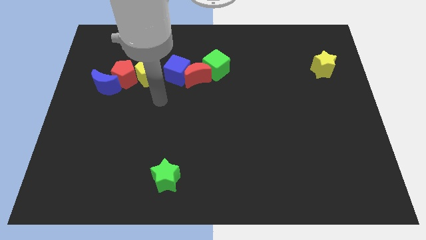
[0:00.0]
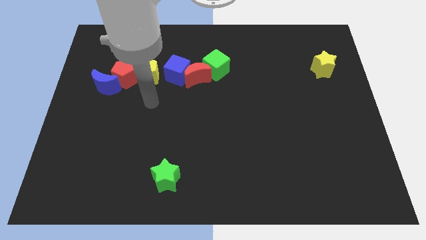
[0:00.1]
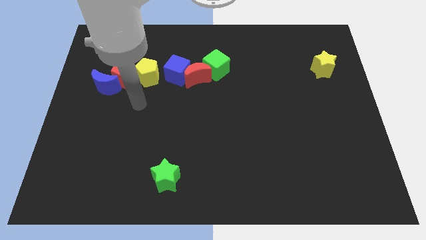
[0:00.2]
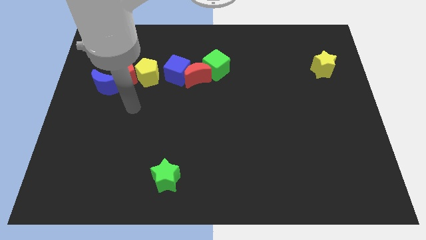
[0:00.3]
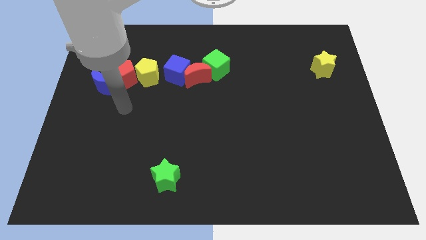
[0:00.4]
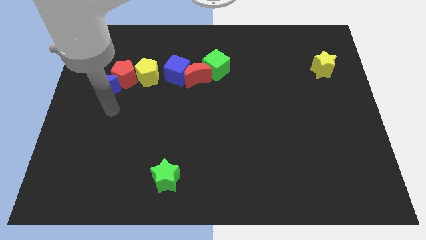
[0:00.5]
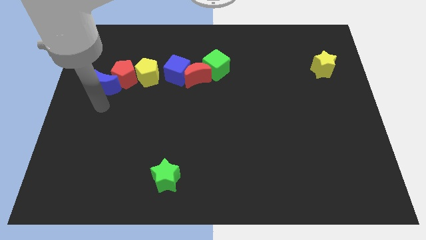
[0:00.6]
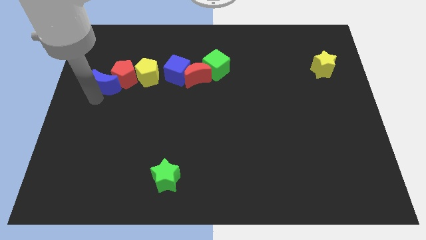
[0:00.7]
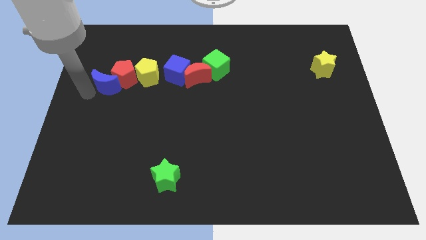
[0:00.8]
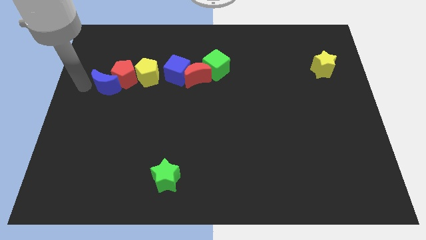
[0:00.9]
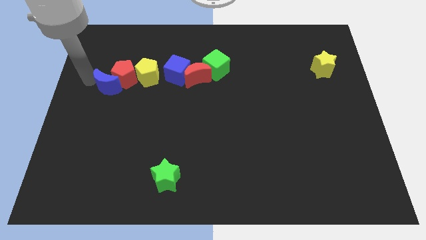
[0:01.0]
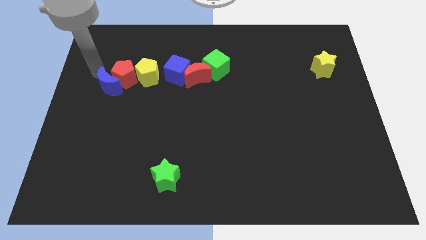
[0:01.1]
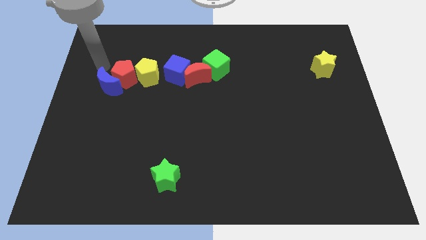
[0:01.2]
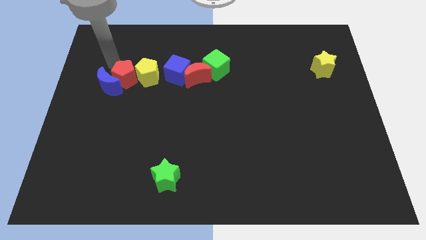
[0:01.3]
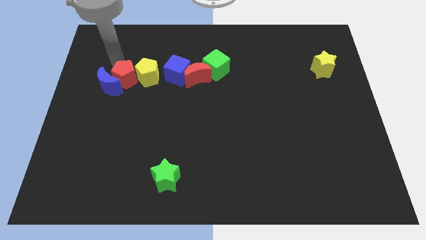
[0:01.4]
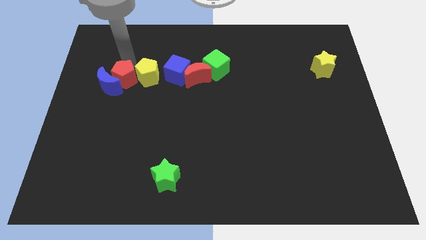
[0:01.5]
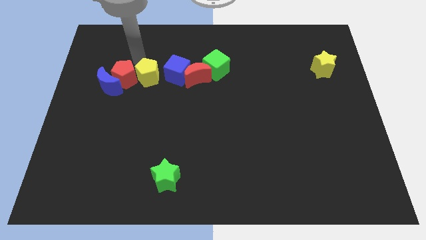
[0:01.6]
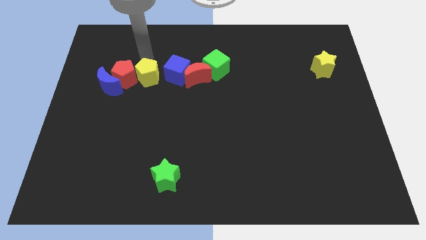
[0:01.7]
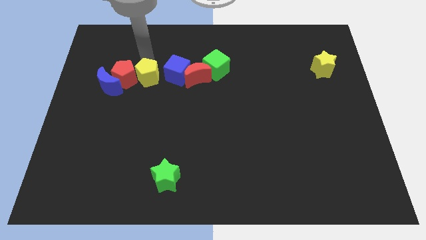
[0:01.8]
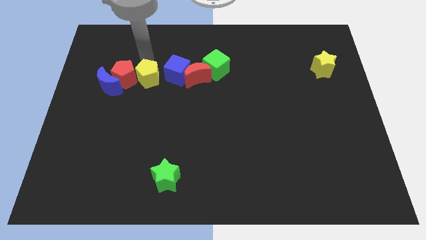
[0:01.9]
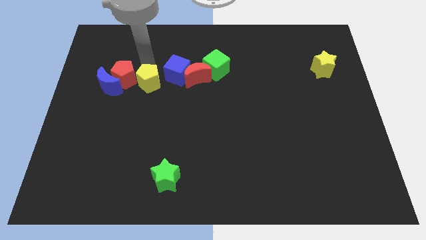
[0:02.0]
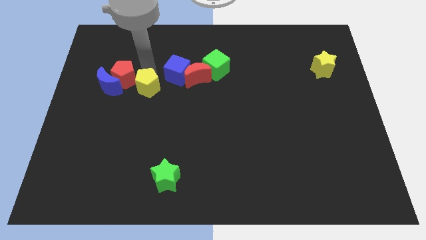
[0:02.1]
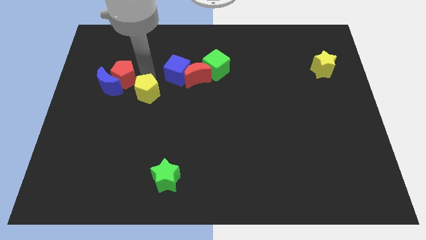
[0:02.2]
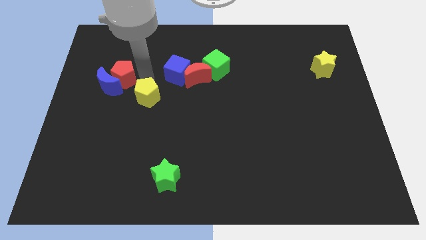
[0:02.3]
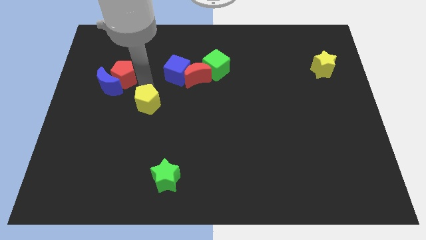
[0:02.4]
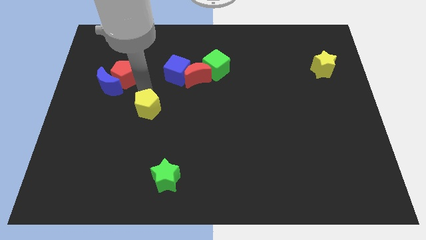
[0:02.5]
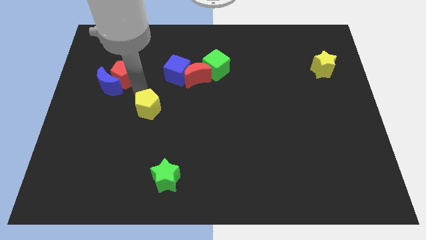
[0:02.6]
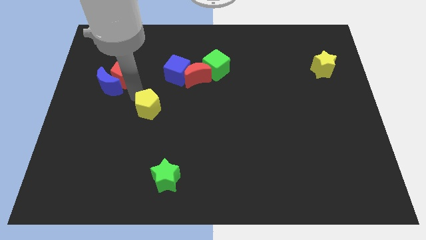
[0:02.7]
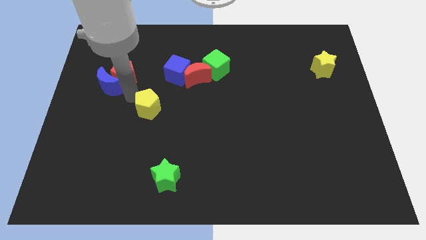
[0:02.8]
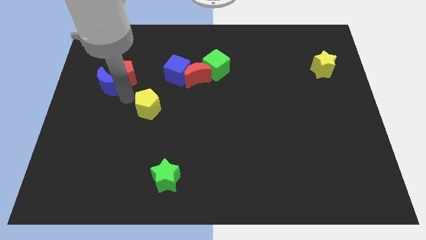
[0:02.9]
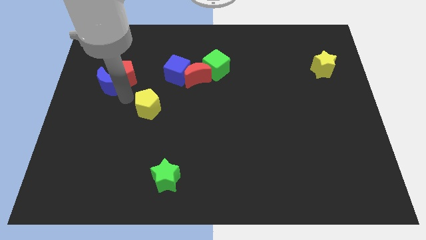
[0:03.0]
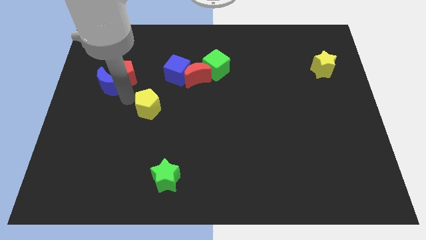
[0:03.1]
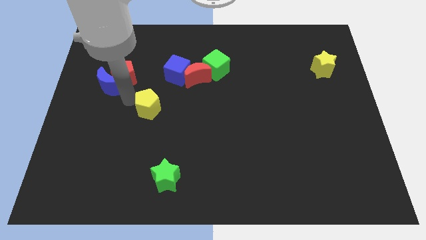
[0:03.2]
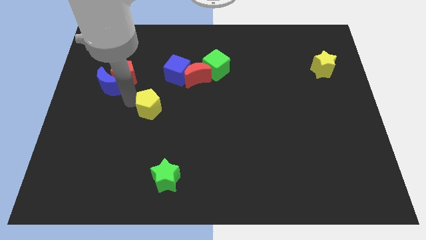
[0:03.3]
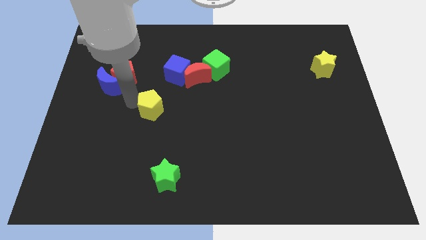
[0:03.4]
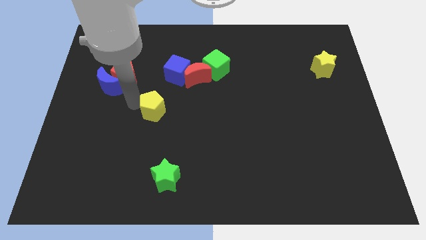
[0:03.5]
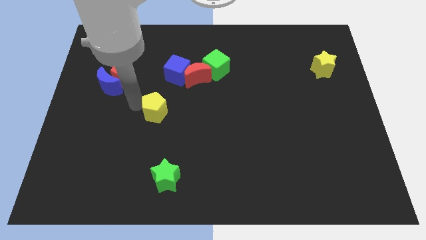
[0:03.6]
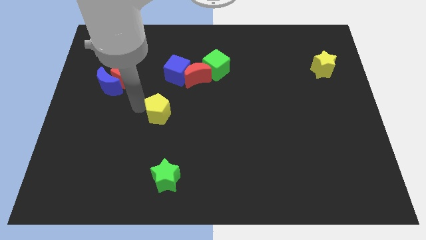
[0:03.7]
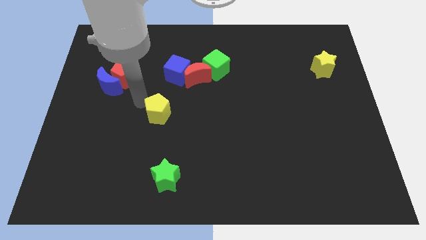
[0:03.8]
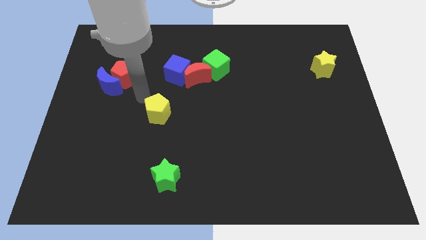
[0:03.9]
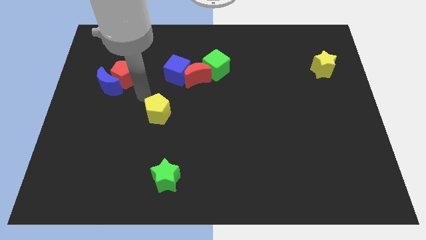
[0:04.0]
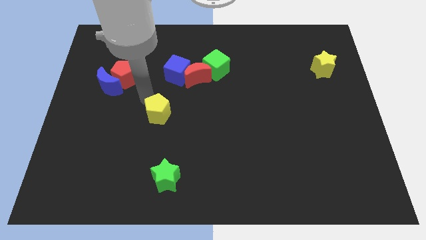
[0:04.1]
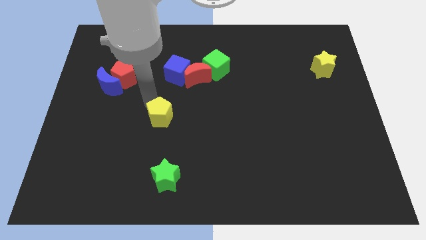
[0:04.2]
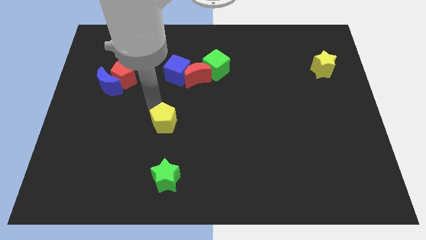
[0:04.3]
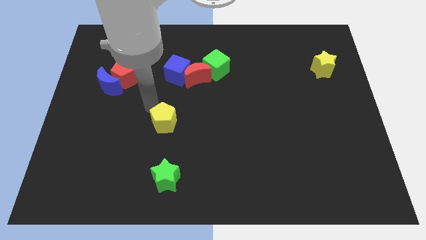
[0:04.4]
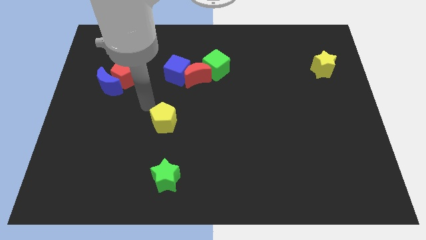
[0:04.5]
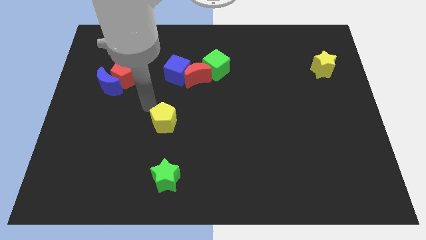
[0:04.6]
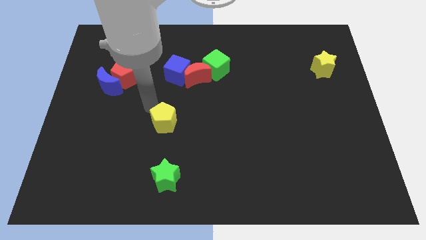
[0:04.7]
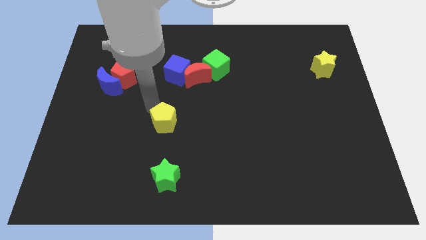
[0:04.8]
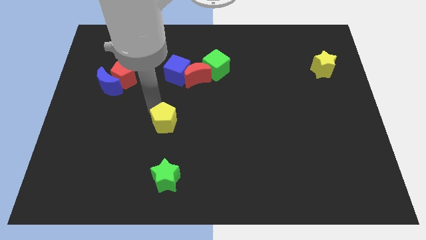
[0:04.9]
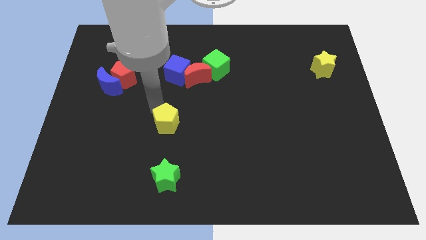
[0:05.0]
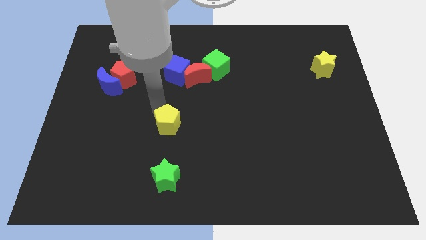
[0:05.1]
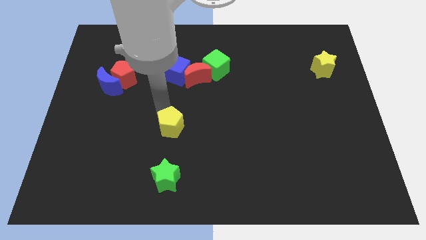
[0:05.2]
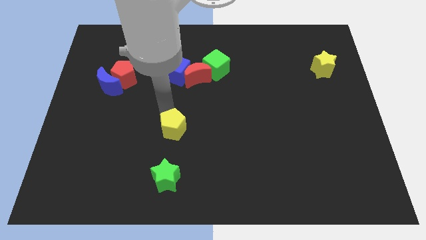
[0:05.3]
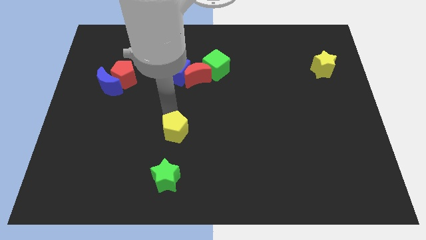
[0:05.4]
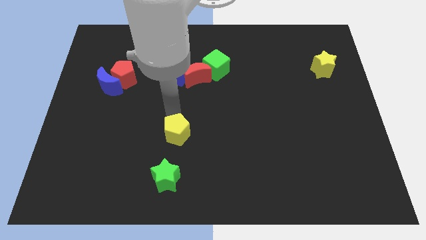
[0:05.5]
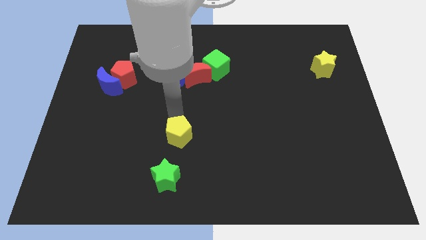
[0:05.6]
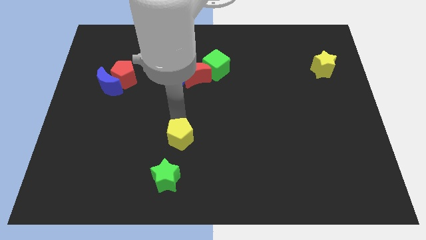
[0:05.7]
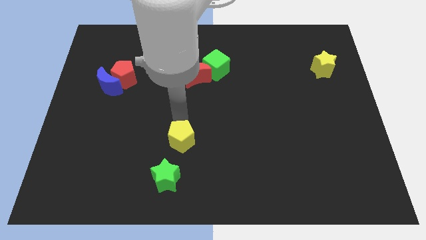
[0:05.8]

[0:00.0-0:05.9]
put the yellow pentagon diagonally up and to the right of the green star

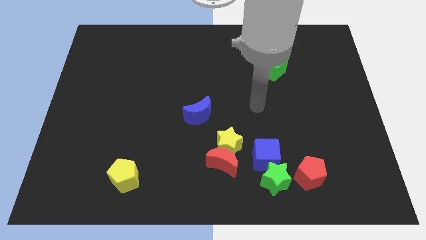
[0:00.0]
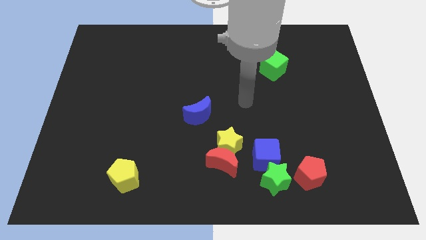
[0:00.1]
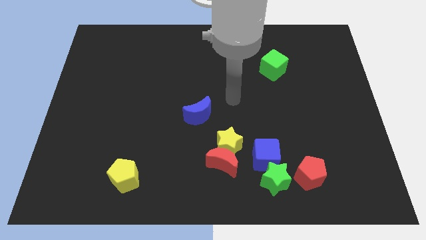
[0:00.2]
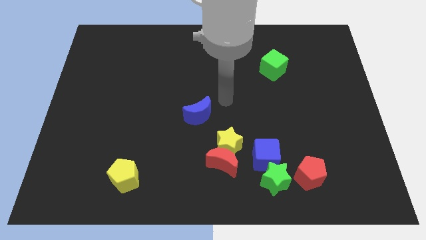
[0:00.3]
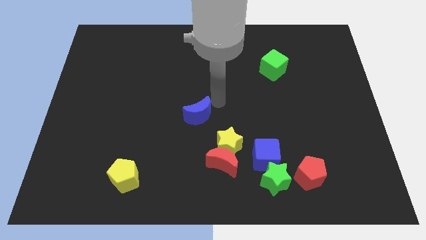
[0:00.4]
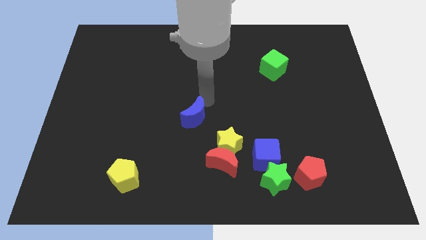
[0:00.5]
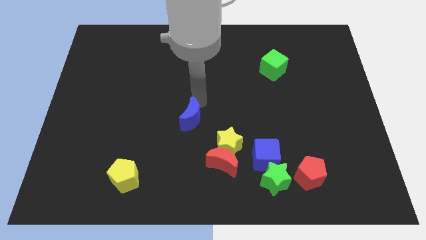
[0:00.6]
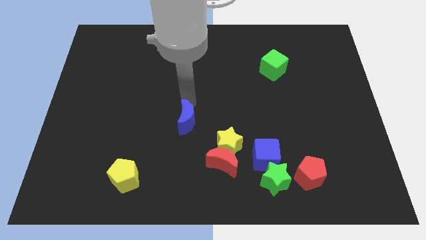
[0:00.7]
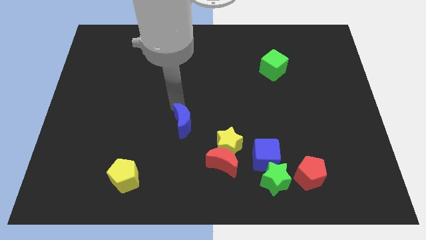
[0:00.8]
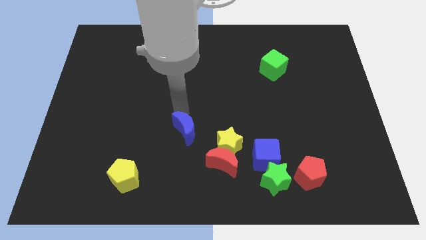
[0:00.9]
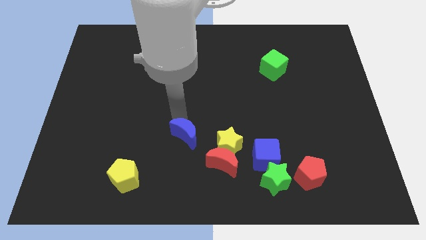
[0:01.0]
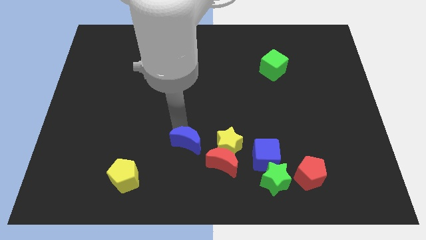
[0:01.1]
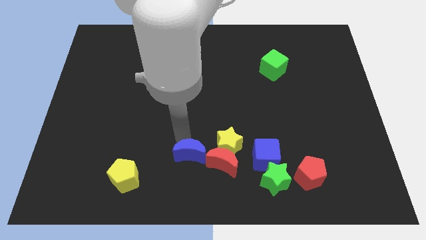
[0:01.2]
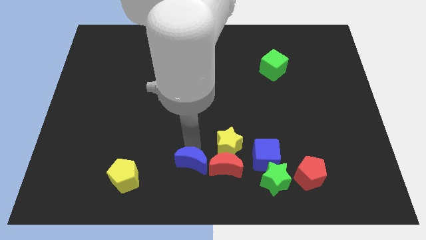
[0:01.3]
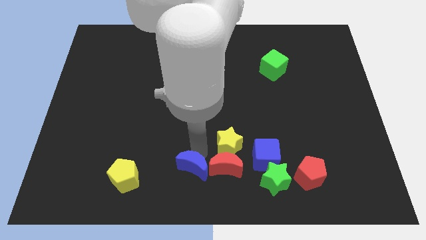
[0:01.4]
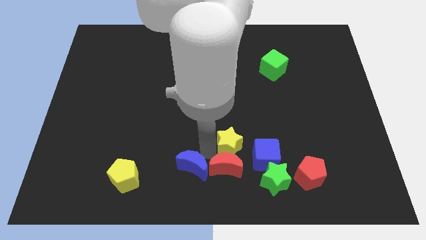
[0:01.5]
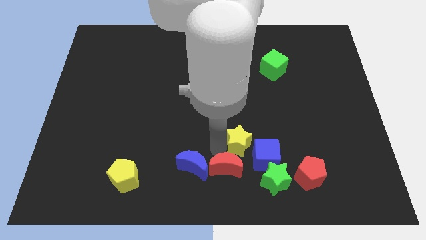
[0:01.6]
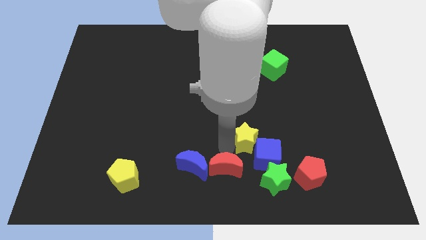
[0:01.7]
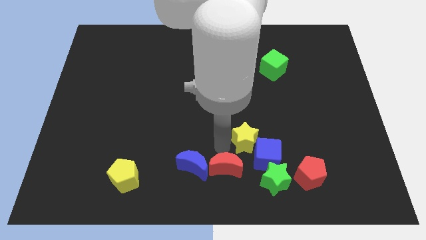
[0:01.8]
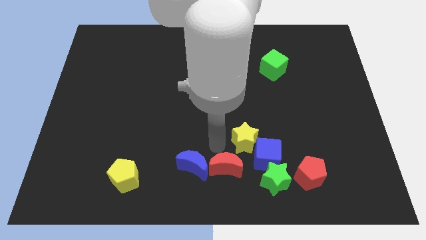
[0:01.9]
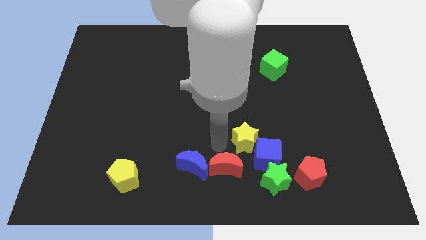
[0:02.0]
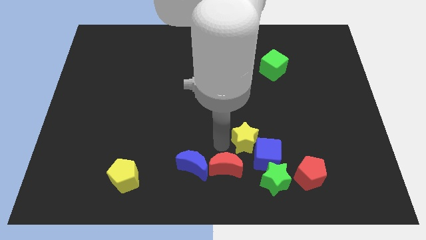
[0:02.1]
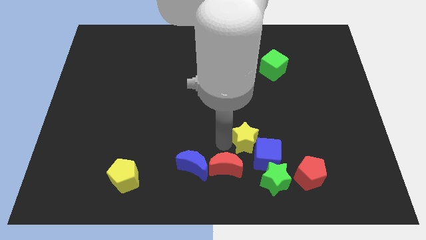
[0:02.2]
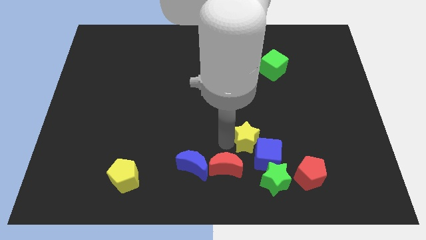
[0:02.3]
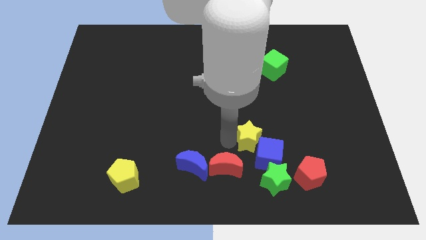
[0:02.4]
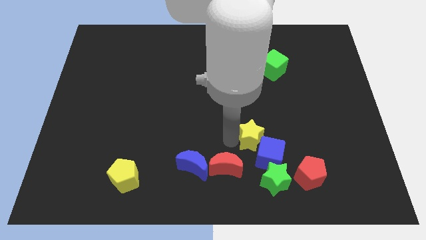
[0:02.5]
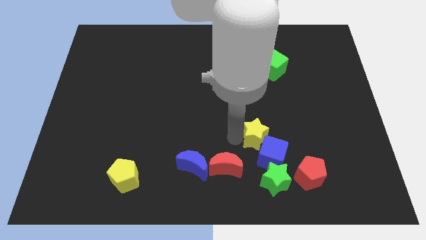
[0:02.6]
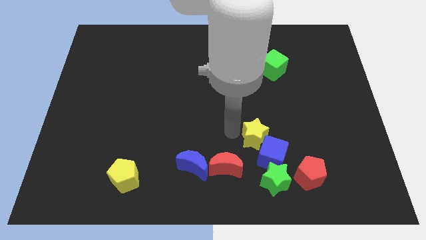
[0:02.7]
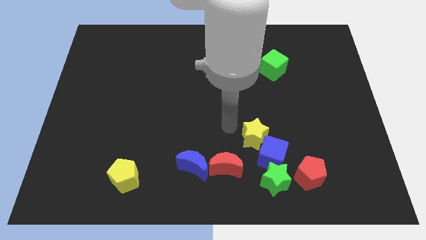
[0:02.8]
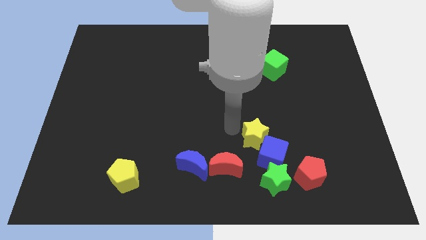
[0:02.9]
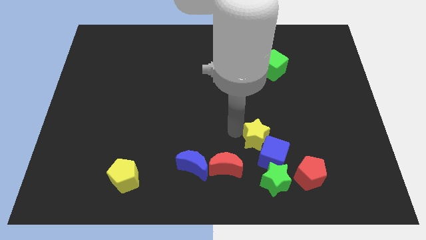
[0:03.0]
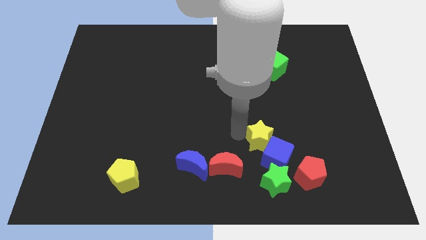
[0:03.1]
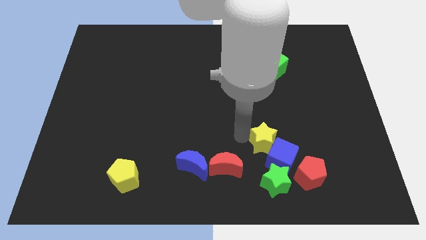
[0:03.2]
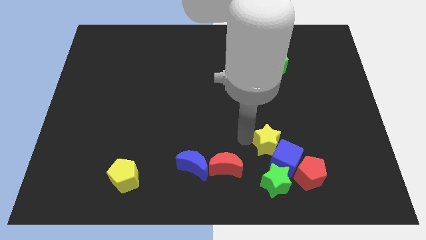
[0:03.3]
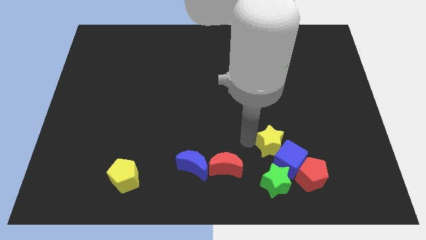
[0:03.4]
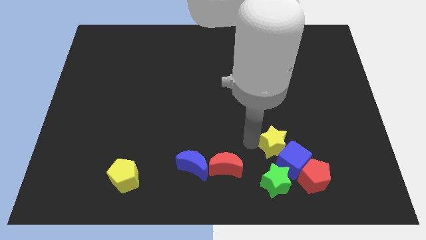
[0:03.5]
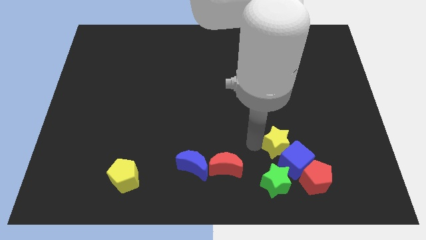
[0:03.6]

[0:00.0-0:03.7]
move the yellow star to the top right side of the green star
